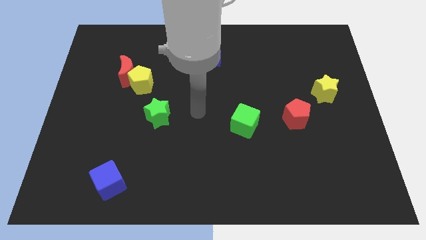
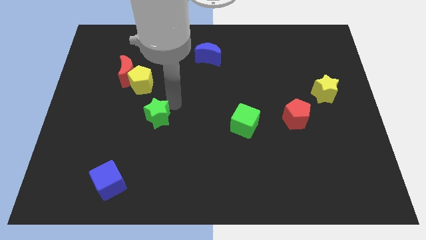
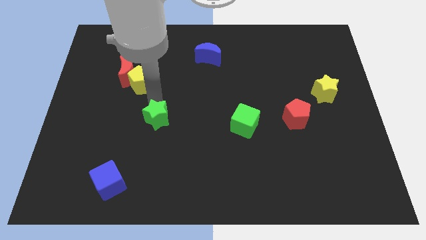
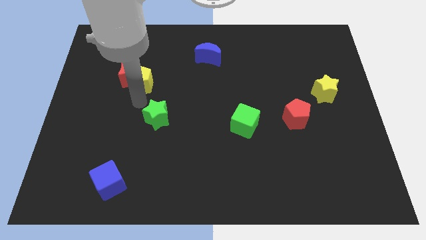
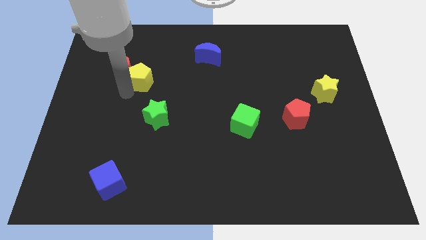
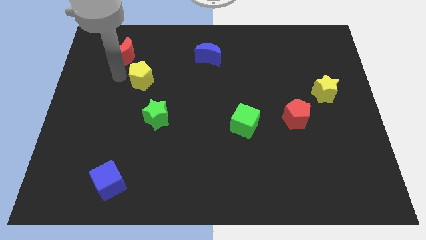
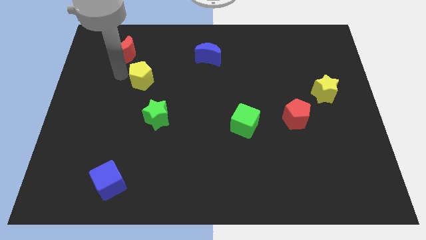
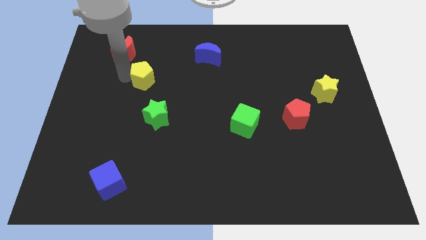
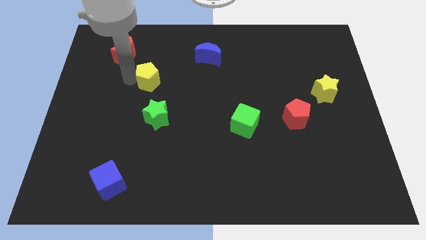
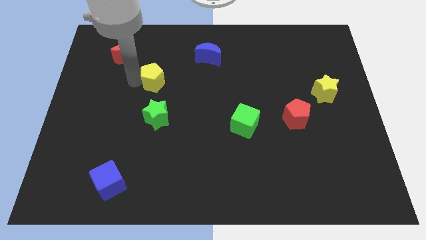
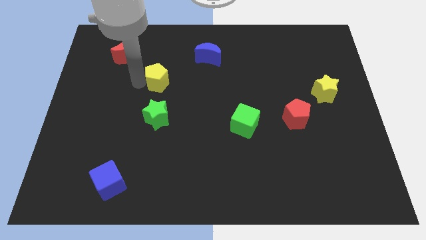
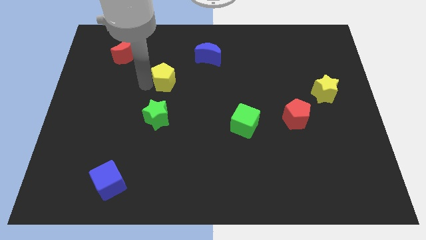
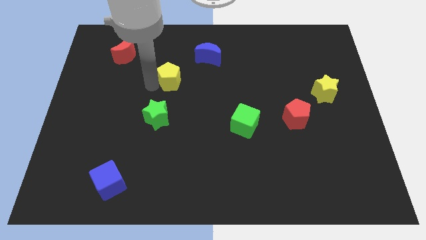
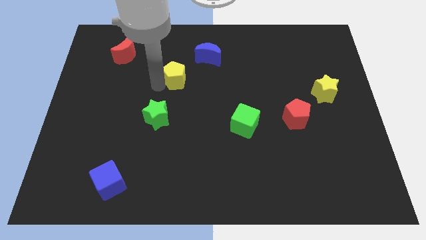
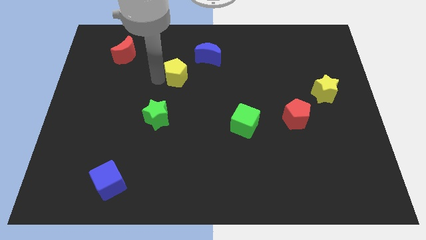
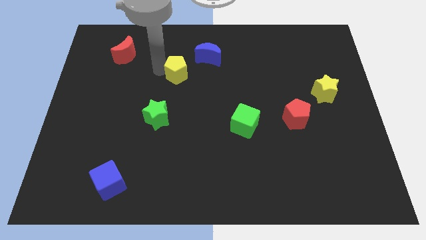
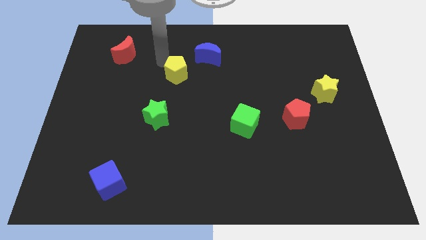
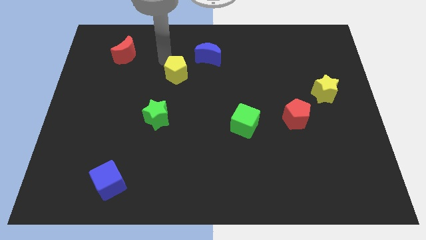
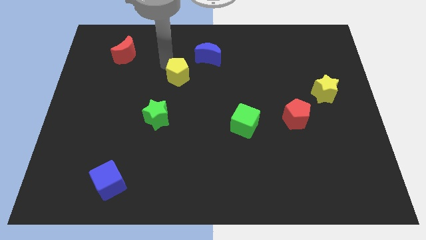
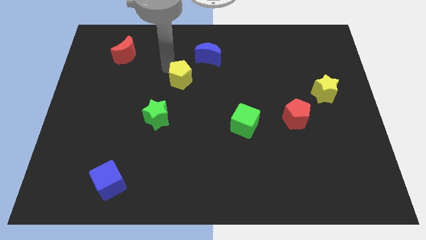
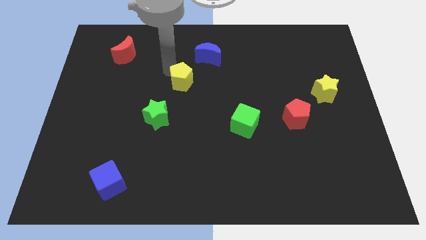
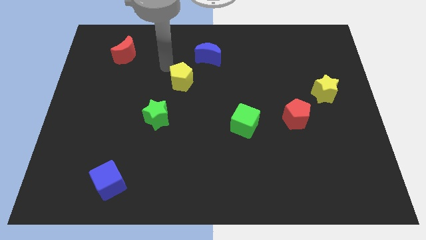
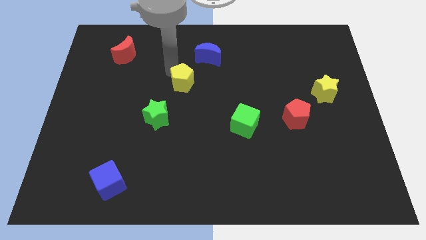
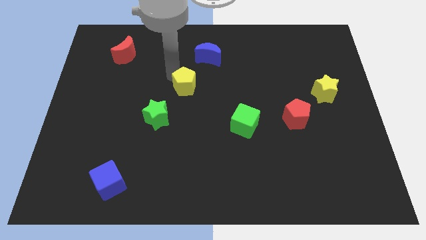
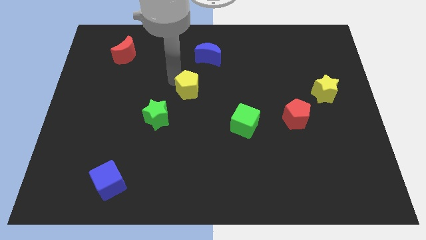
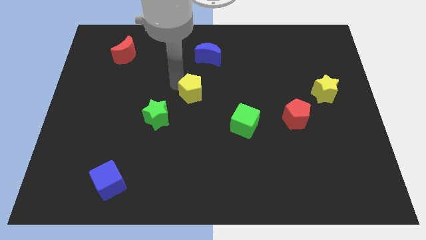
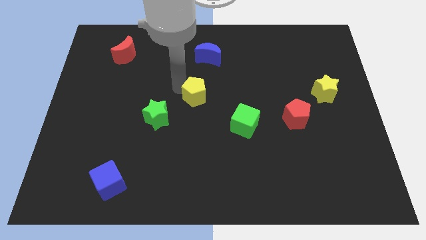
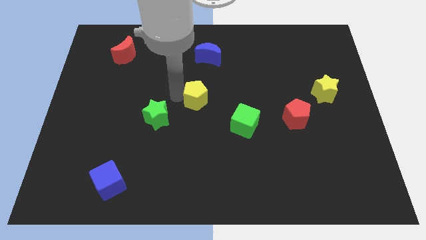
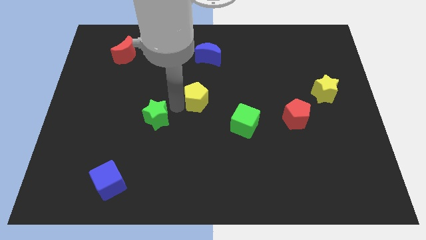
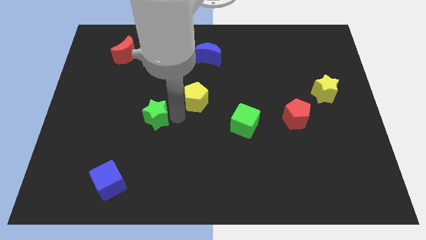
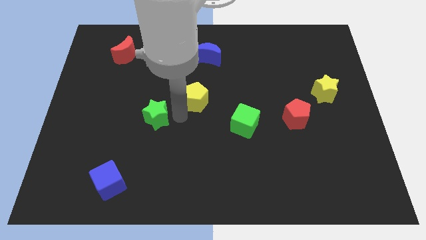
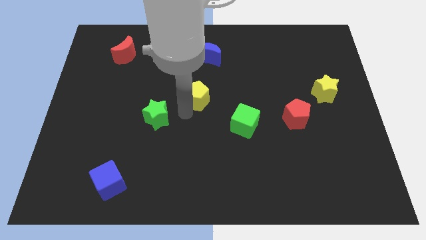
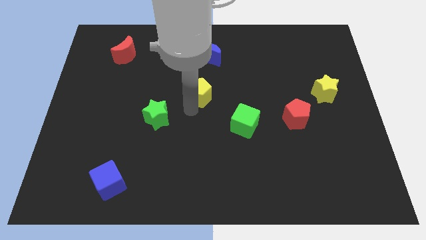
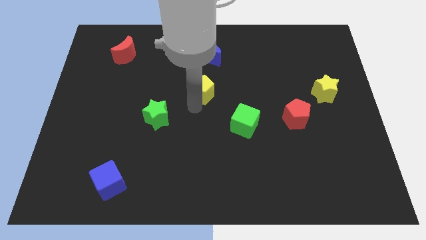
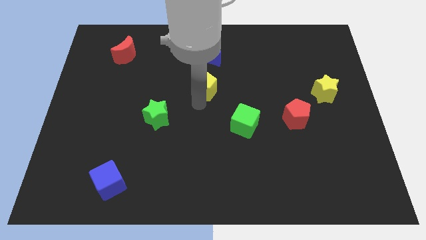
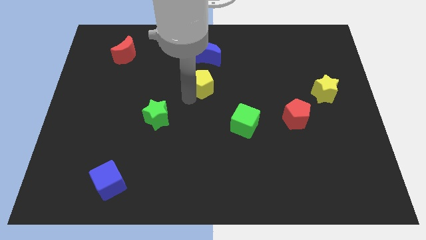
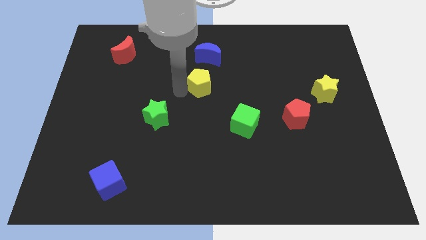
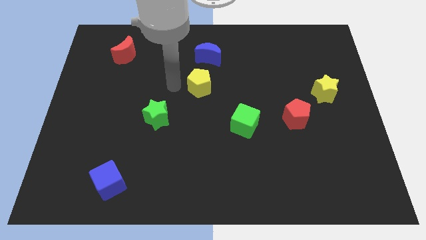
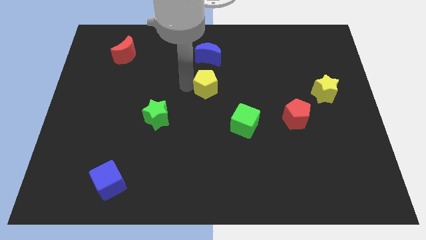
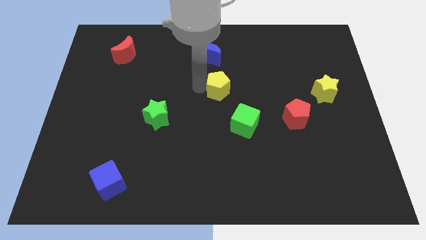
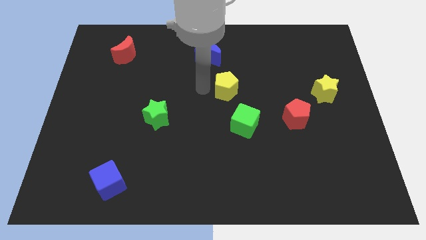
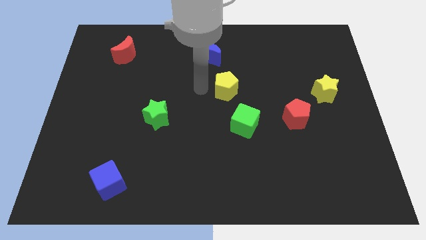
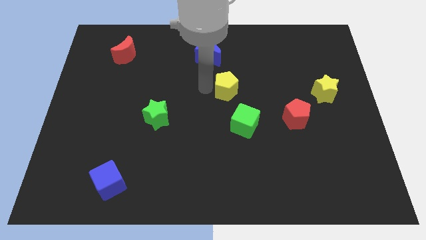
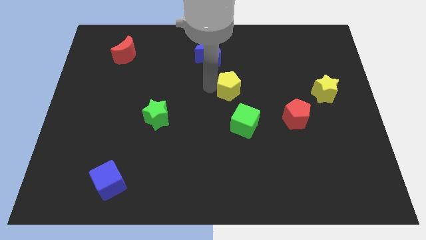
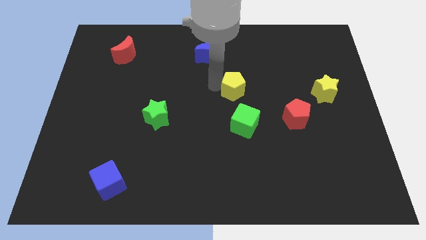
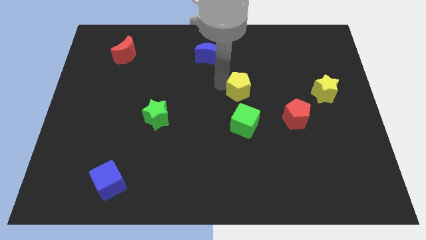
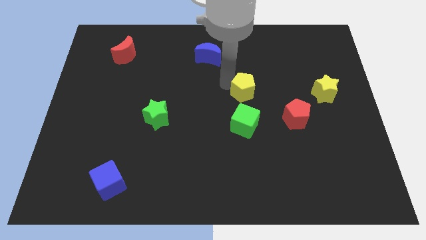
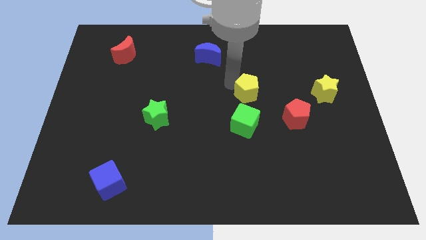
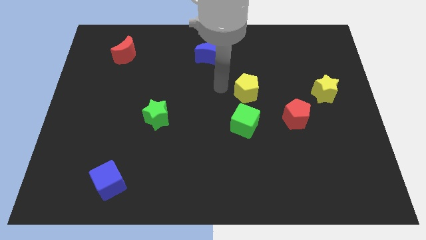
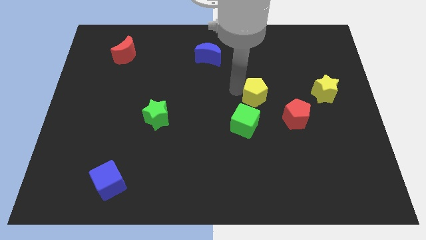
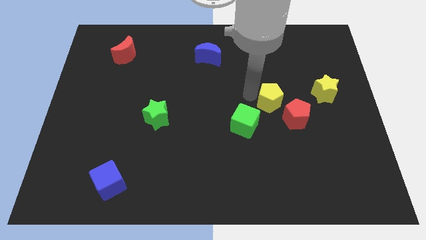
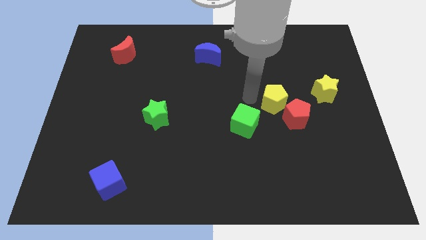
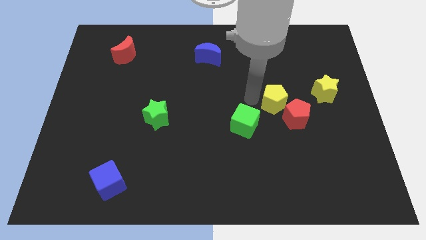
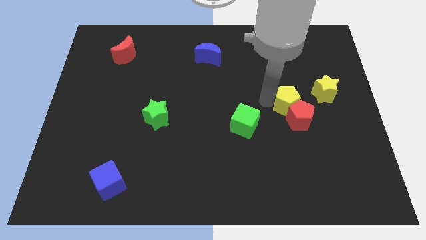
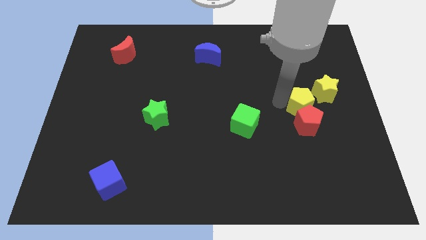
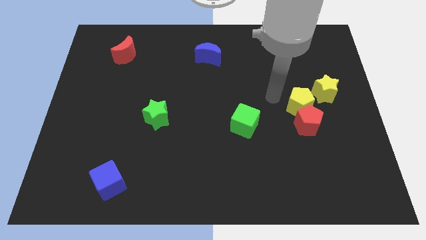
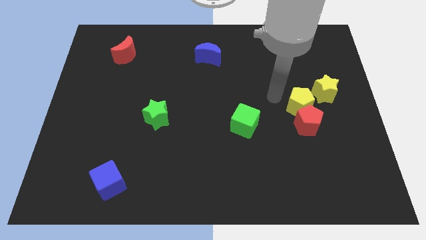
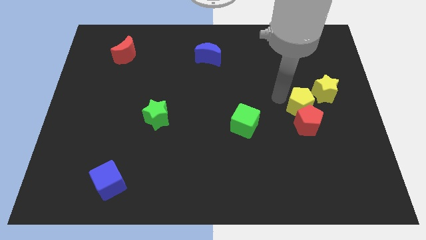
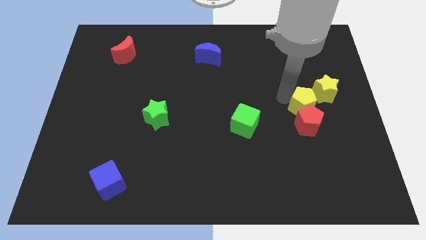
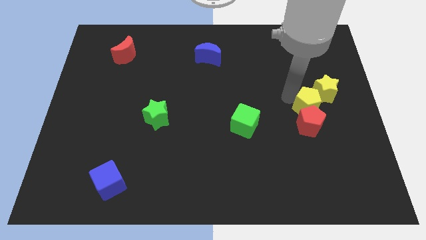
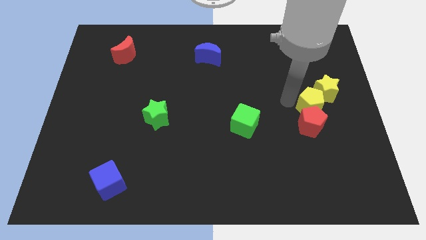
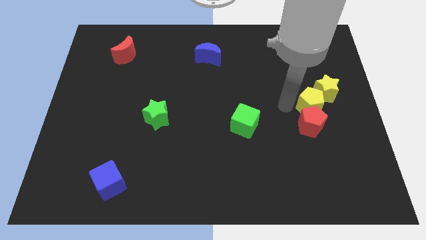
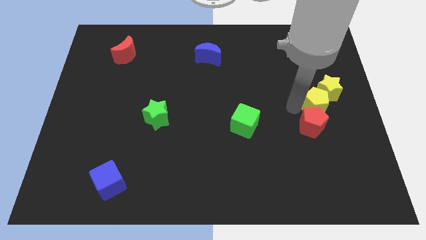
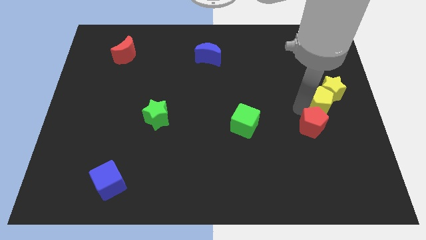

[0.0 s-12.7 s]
slide the yellow pentagon to the right side
